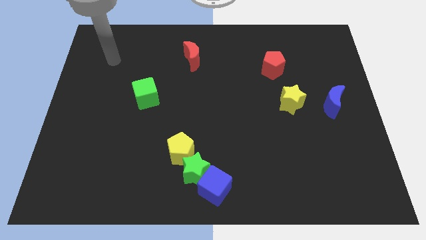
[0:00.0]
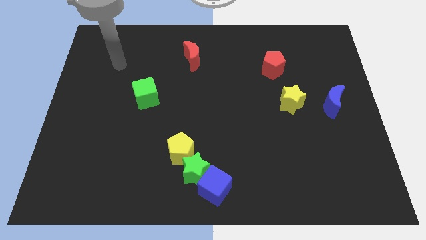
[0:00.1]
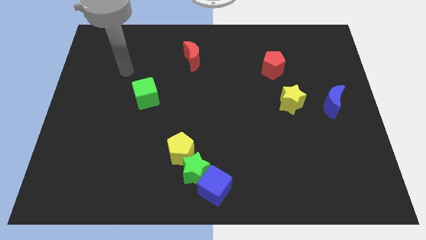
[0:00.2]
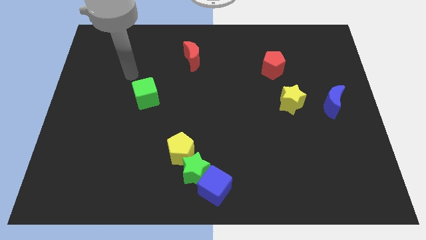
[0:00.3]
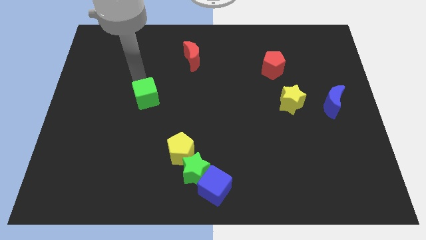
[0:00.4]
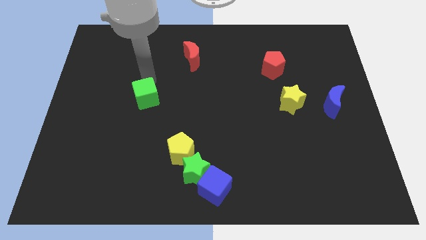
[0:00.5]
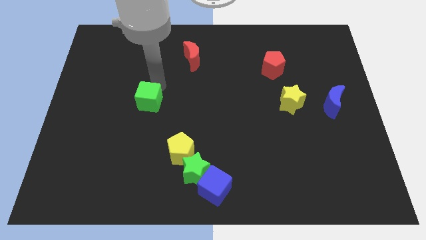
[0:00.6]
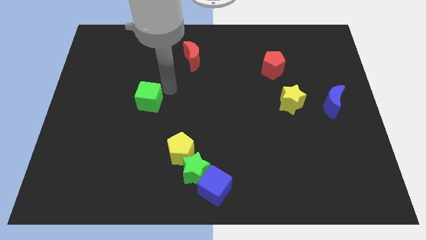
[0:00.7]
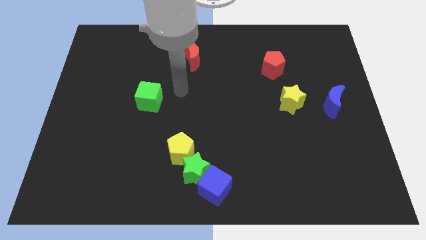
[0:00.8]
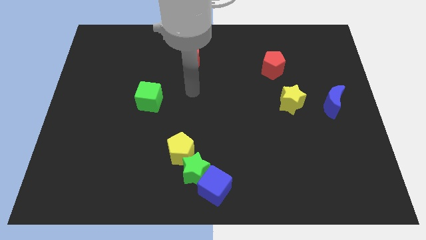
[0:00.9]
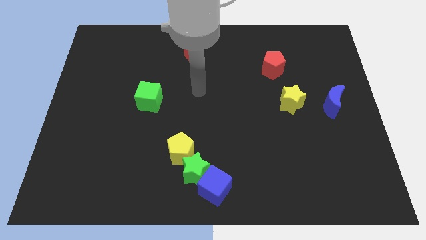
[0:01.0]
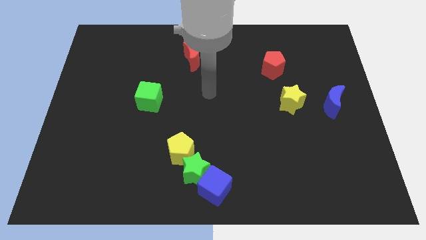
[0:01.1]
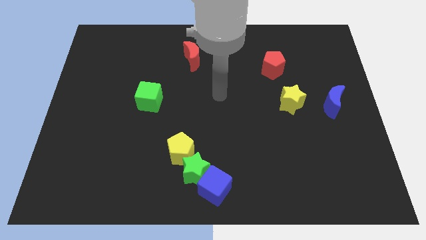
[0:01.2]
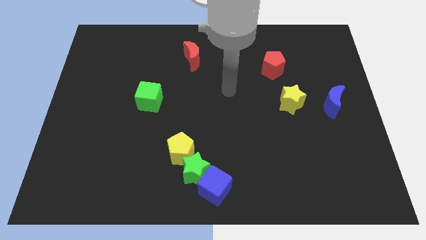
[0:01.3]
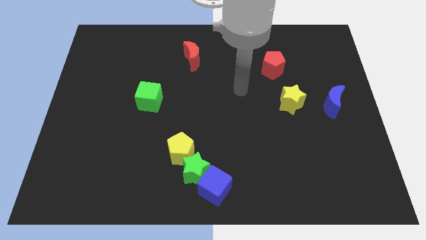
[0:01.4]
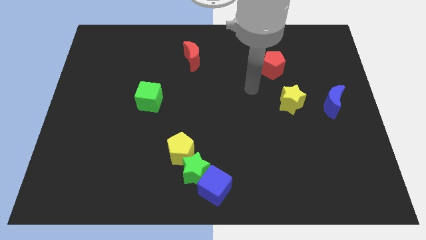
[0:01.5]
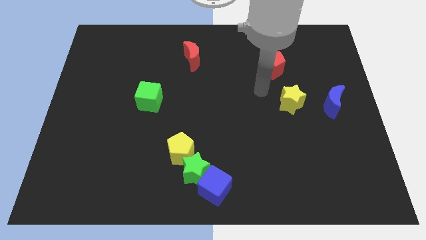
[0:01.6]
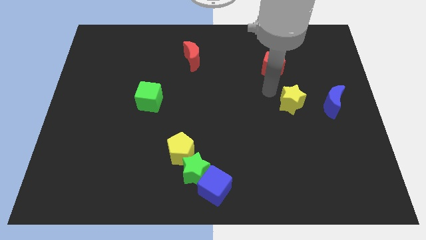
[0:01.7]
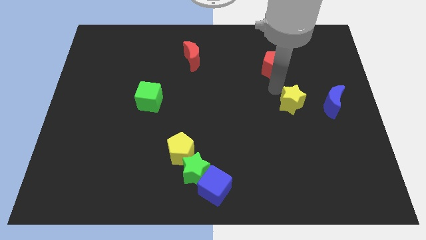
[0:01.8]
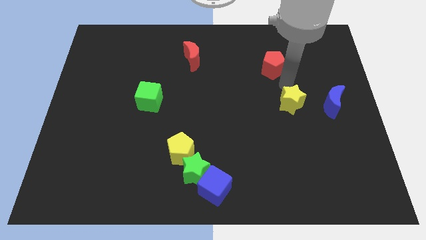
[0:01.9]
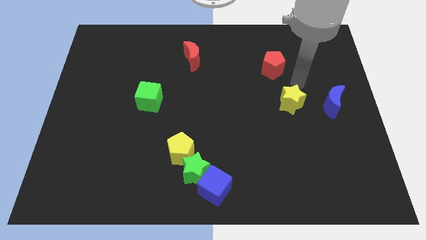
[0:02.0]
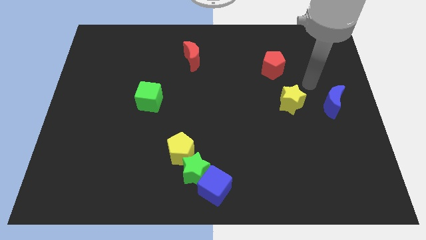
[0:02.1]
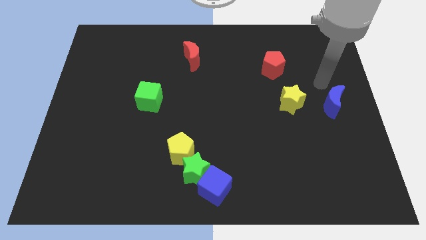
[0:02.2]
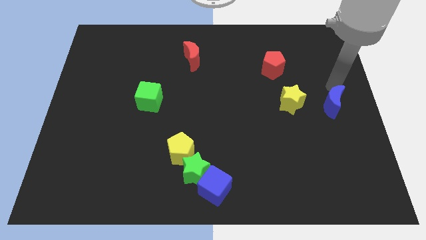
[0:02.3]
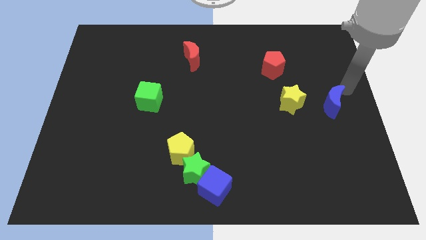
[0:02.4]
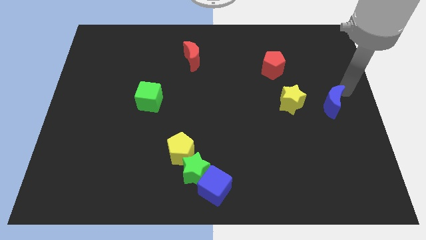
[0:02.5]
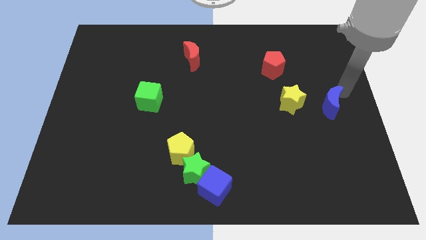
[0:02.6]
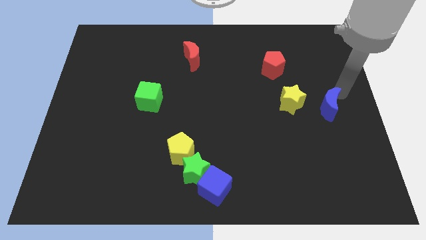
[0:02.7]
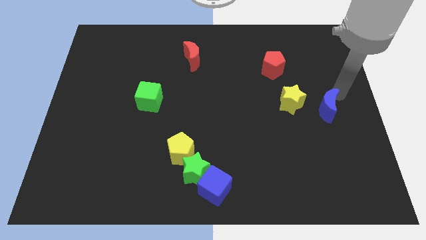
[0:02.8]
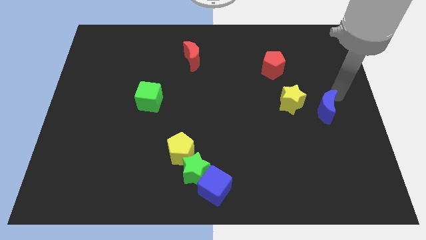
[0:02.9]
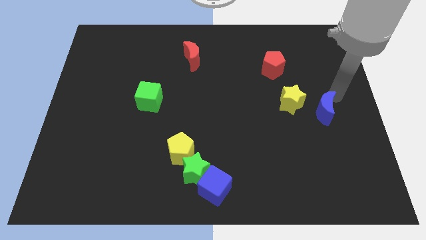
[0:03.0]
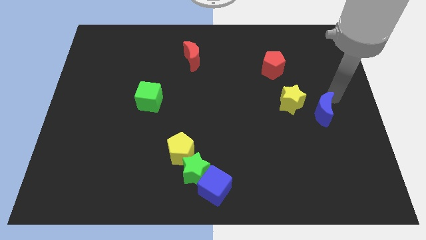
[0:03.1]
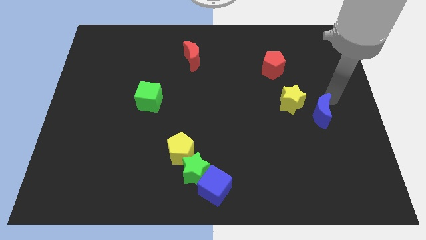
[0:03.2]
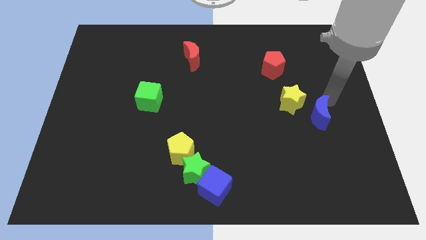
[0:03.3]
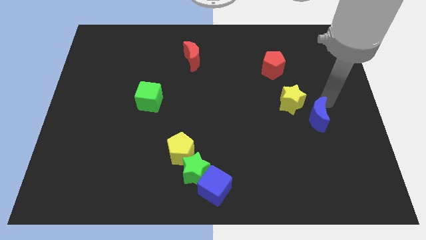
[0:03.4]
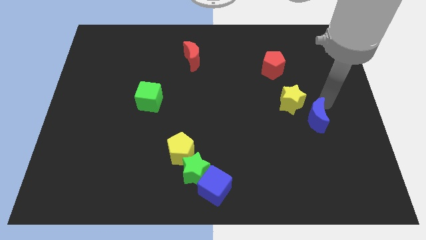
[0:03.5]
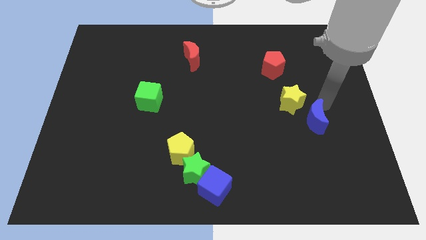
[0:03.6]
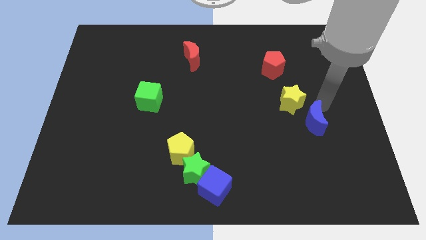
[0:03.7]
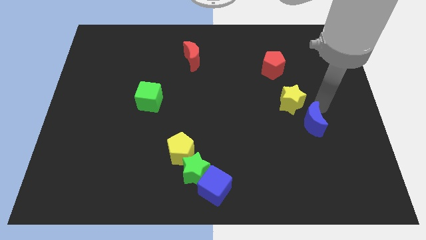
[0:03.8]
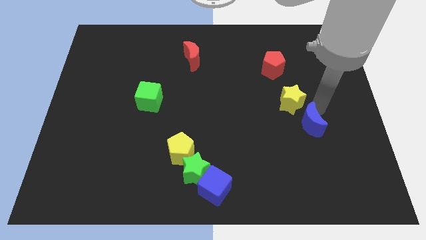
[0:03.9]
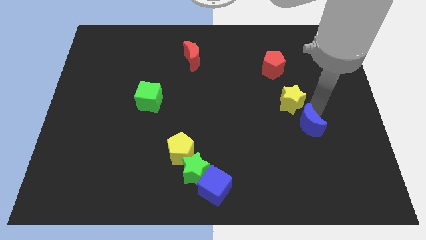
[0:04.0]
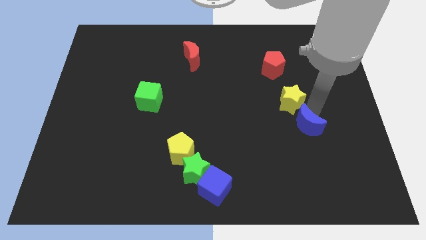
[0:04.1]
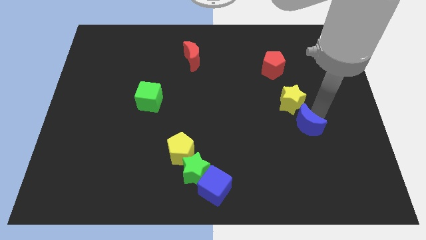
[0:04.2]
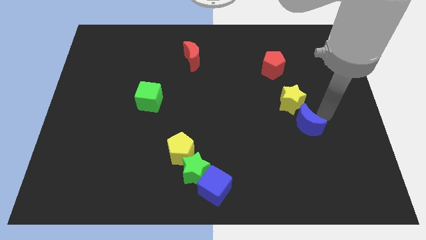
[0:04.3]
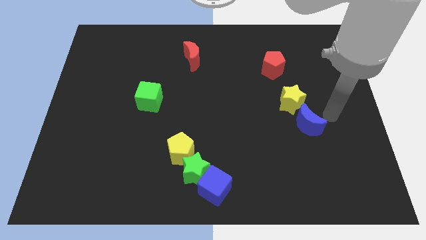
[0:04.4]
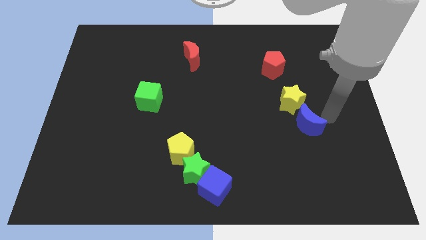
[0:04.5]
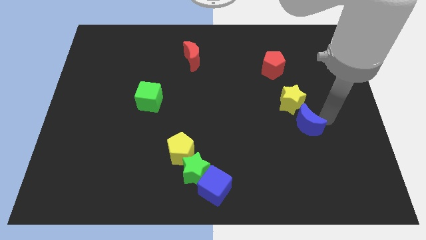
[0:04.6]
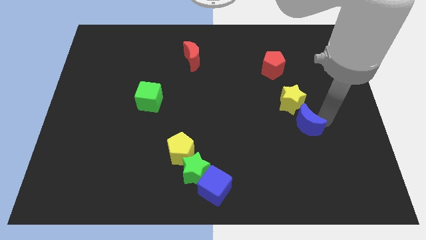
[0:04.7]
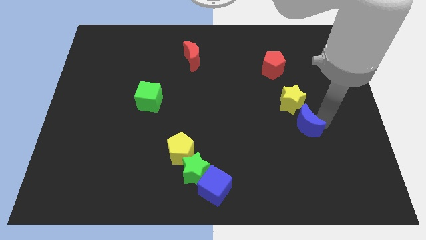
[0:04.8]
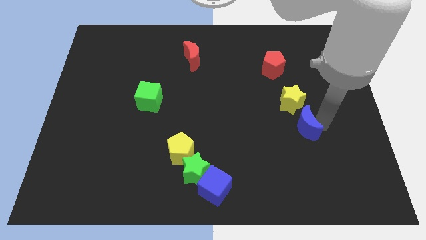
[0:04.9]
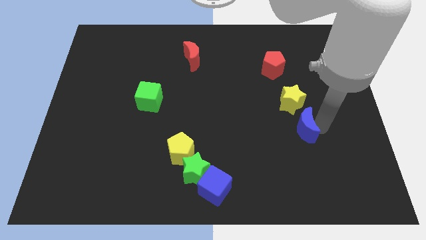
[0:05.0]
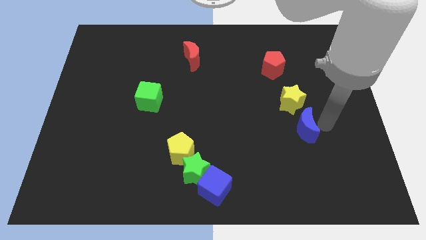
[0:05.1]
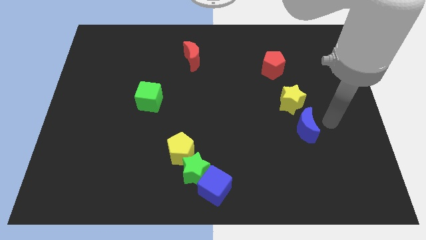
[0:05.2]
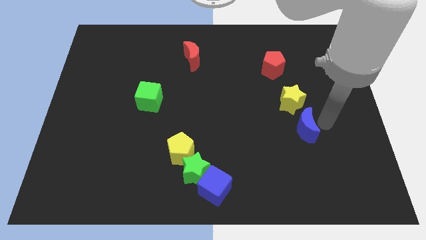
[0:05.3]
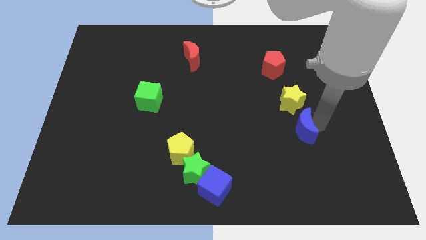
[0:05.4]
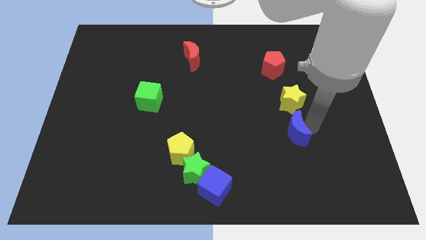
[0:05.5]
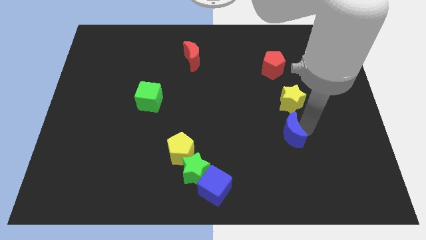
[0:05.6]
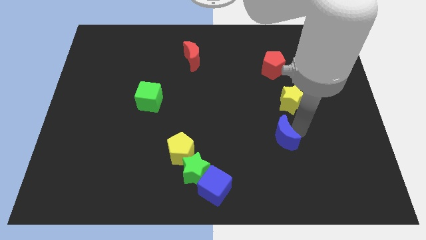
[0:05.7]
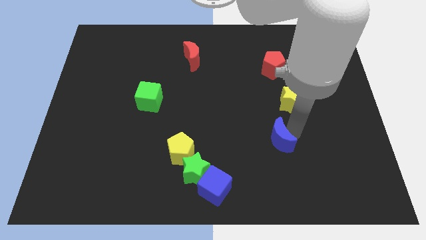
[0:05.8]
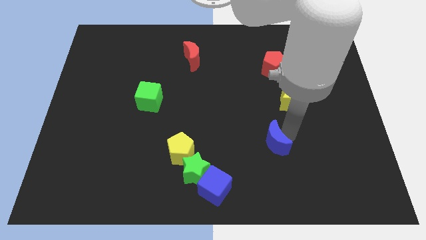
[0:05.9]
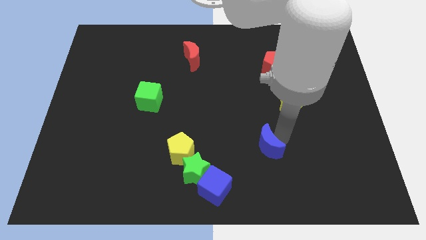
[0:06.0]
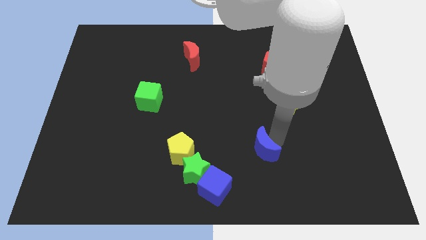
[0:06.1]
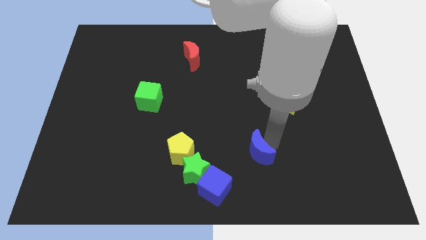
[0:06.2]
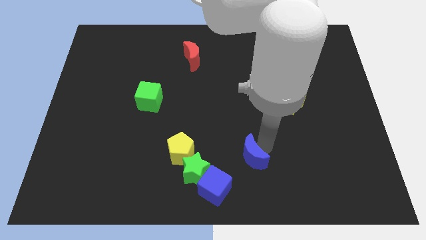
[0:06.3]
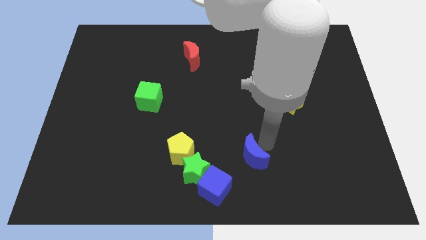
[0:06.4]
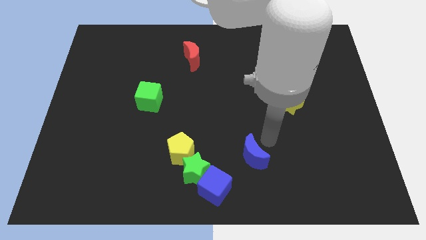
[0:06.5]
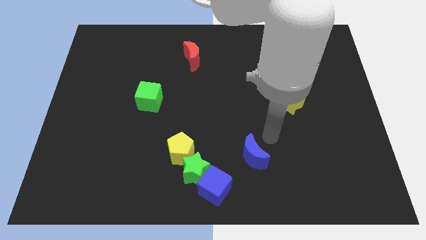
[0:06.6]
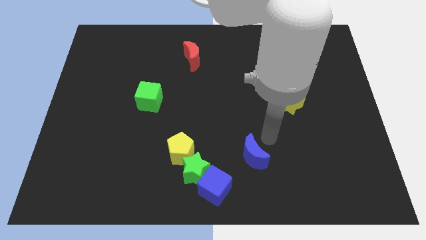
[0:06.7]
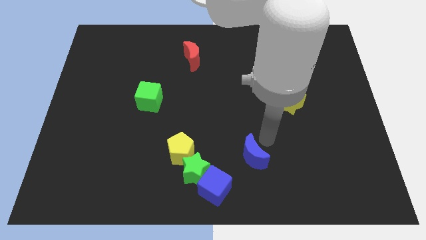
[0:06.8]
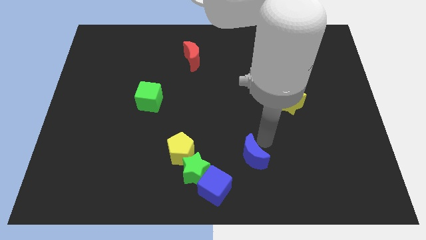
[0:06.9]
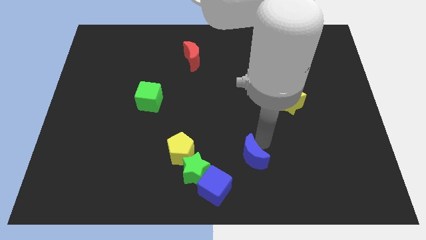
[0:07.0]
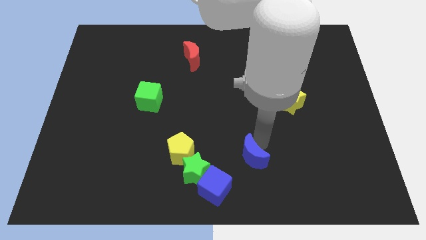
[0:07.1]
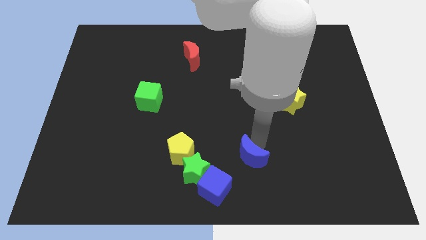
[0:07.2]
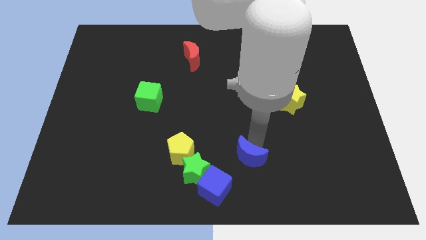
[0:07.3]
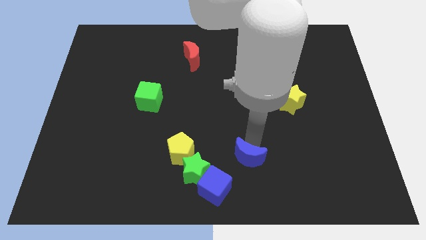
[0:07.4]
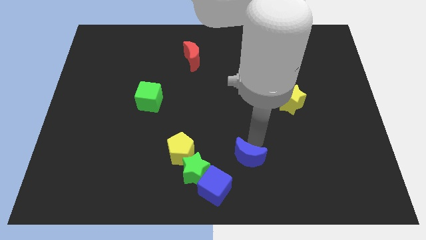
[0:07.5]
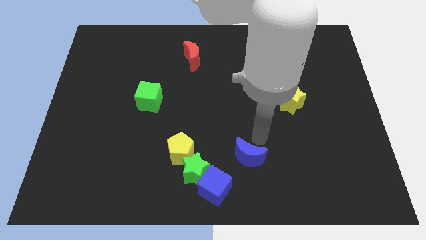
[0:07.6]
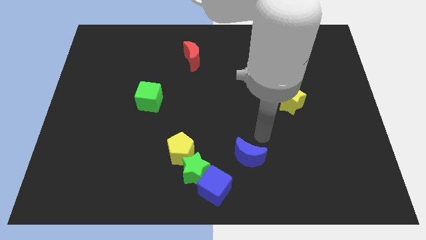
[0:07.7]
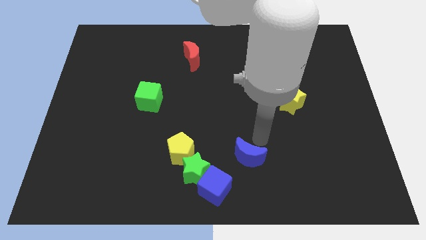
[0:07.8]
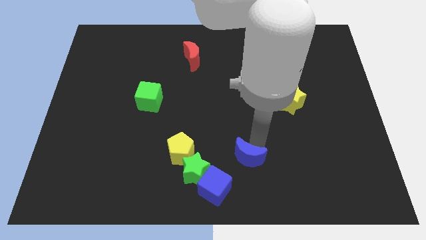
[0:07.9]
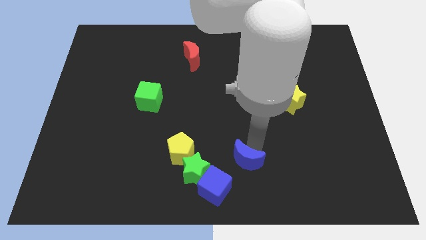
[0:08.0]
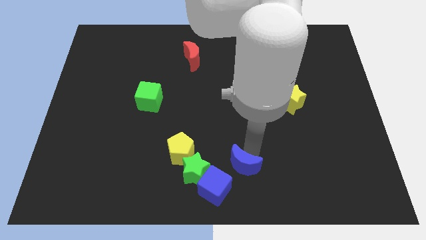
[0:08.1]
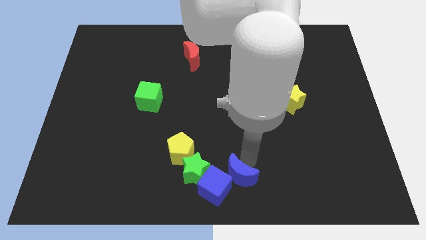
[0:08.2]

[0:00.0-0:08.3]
slide the blue moon to the blue cube
